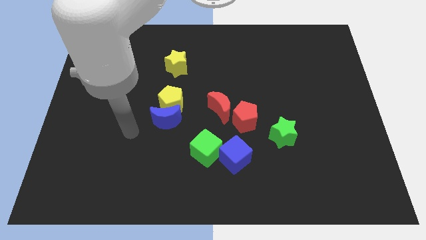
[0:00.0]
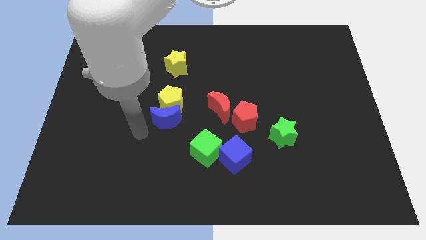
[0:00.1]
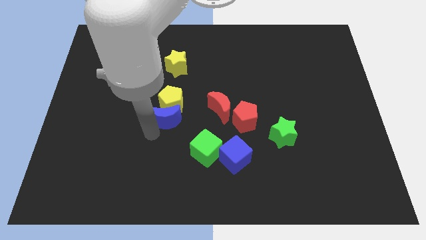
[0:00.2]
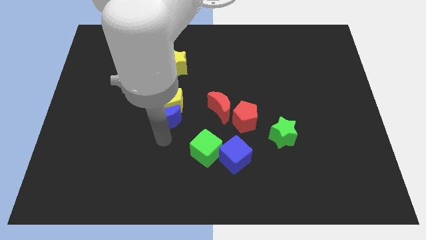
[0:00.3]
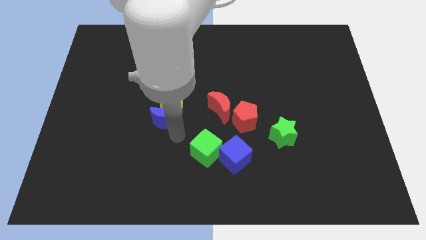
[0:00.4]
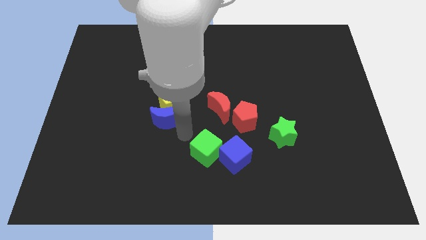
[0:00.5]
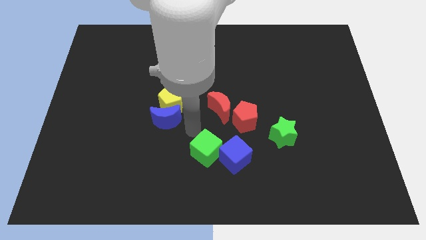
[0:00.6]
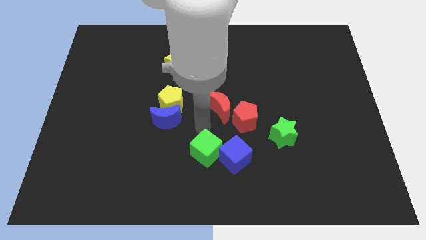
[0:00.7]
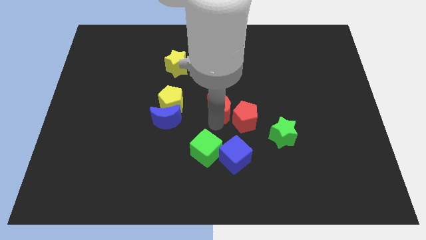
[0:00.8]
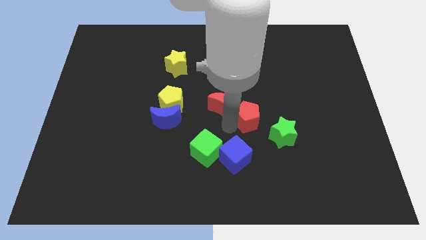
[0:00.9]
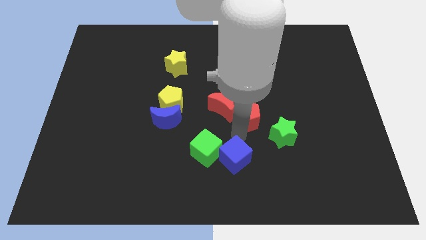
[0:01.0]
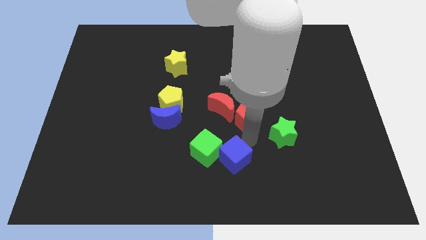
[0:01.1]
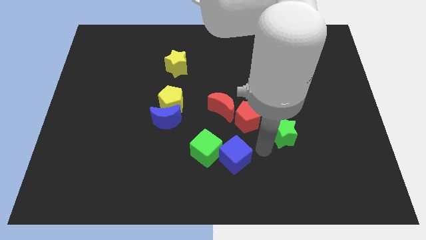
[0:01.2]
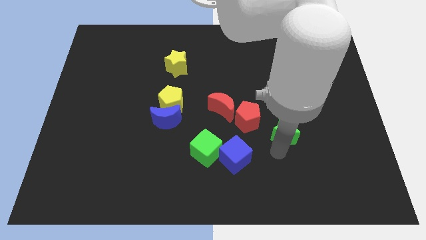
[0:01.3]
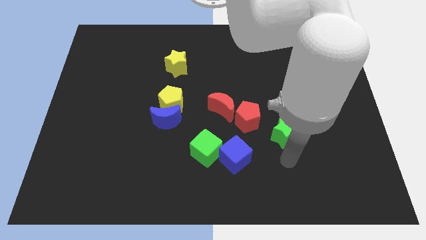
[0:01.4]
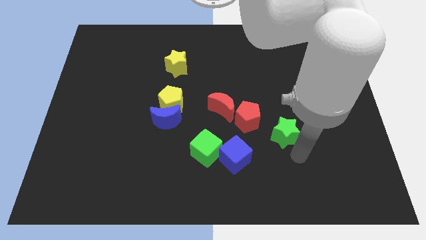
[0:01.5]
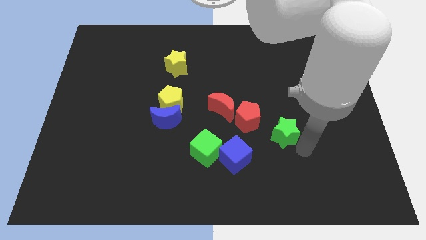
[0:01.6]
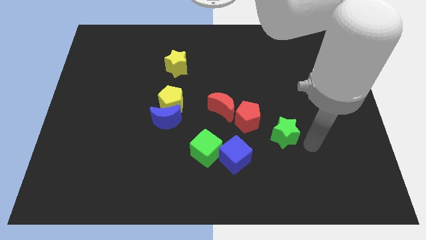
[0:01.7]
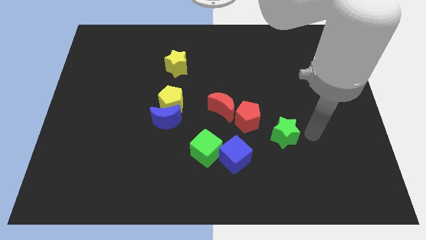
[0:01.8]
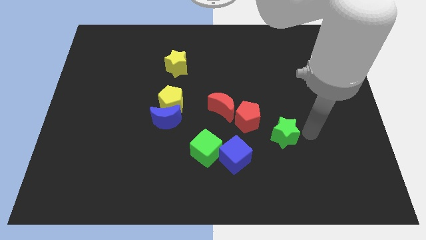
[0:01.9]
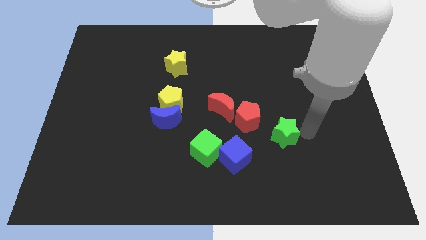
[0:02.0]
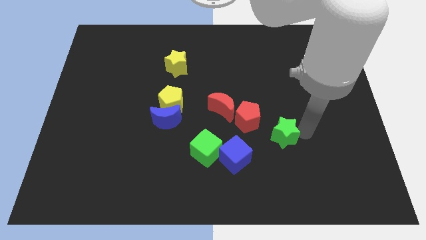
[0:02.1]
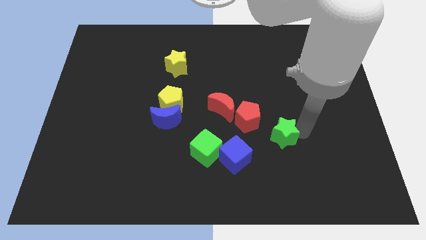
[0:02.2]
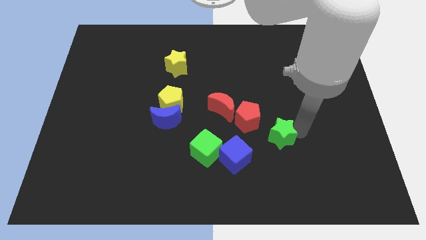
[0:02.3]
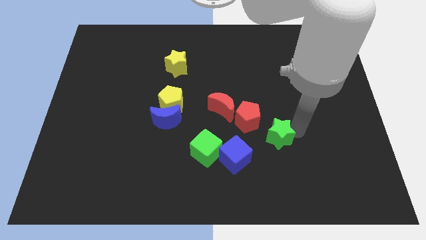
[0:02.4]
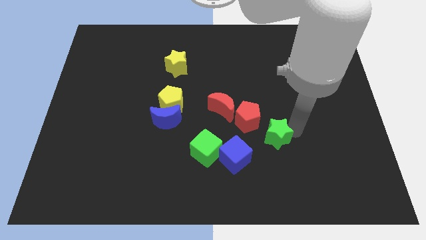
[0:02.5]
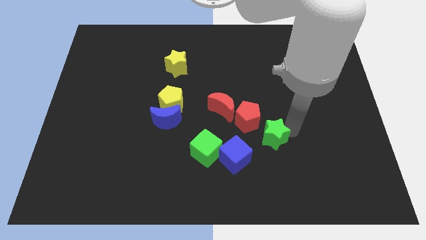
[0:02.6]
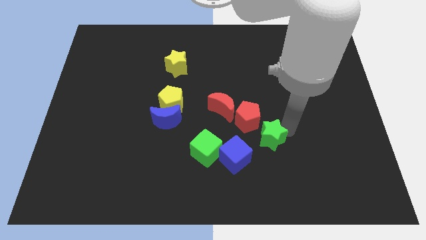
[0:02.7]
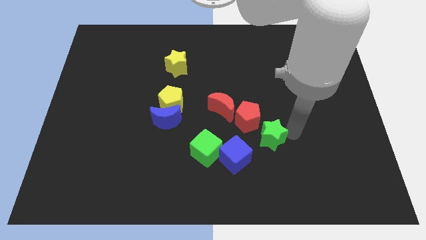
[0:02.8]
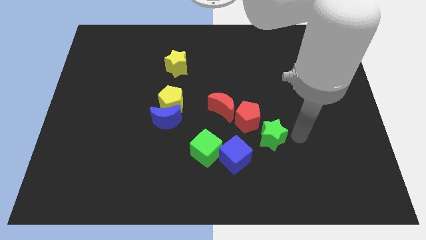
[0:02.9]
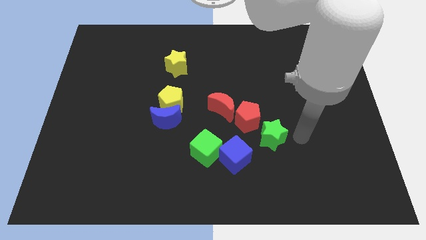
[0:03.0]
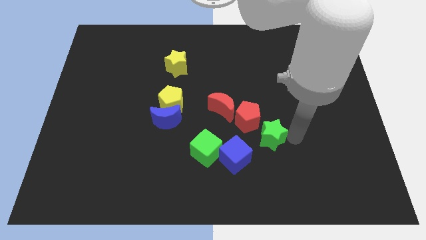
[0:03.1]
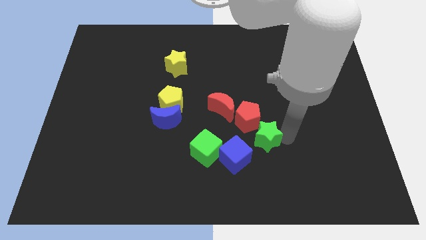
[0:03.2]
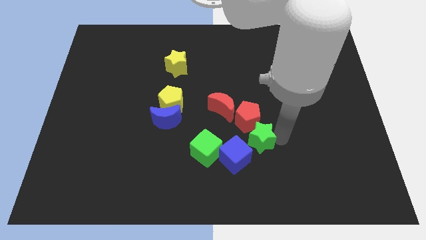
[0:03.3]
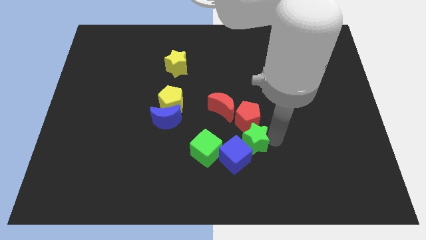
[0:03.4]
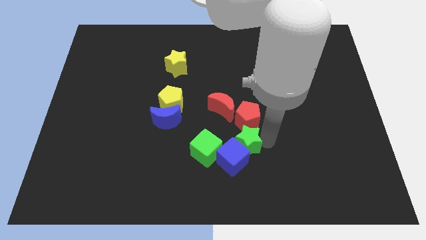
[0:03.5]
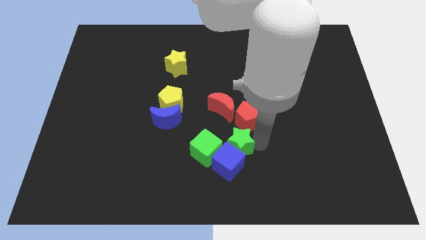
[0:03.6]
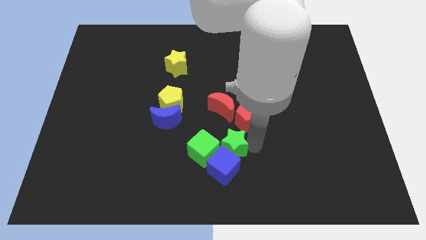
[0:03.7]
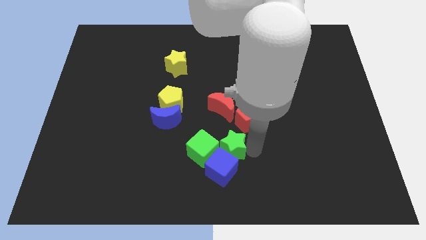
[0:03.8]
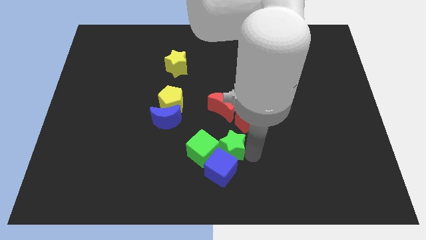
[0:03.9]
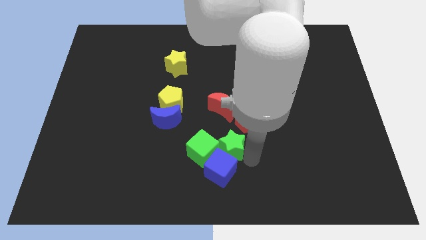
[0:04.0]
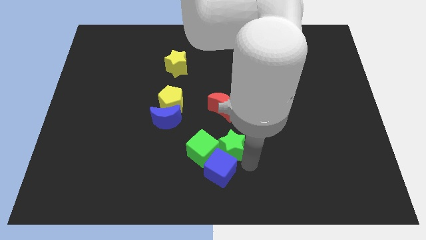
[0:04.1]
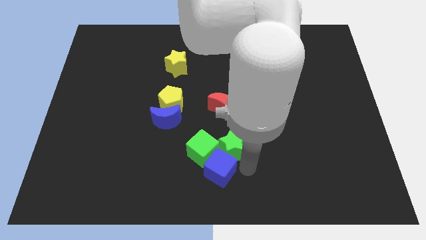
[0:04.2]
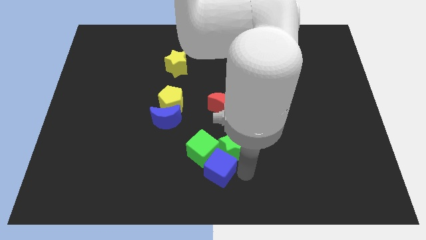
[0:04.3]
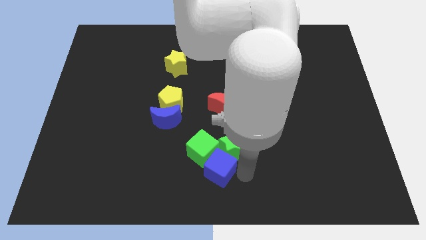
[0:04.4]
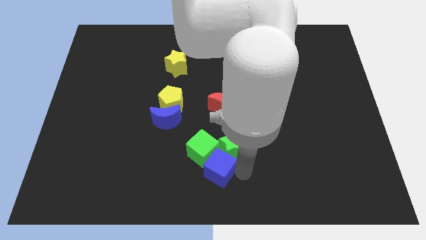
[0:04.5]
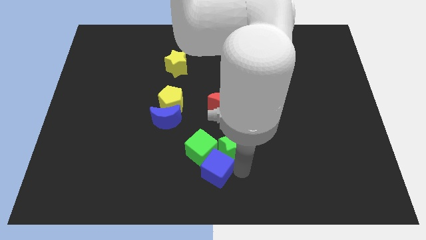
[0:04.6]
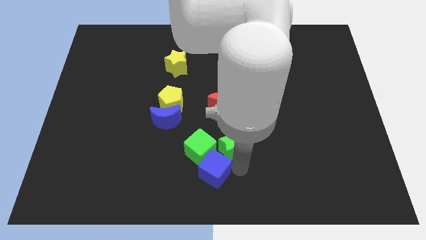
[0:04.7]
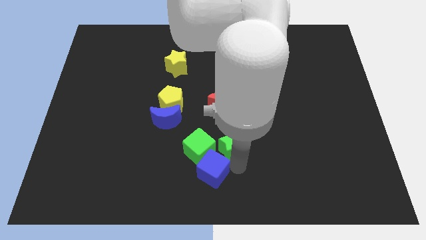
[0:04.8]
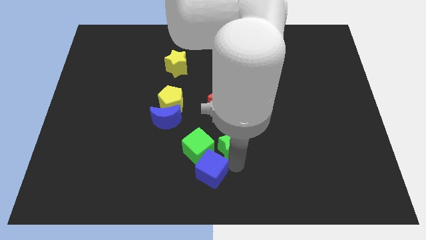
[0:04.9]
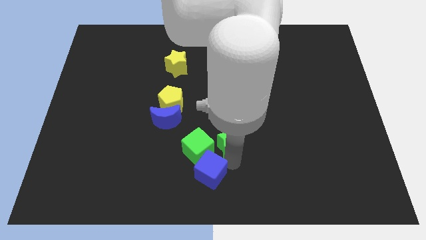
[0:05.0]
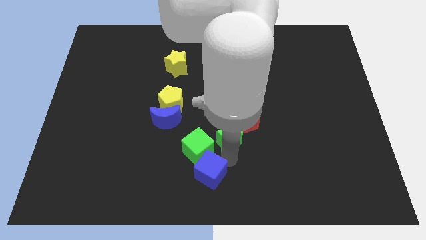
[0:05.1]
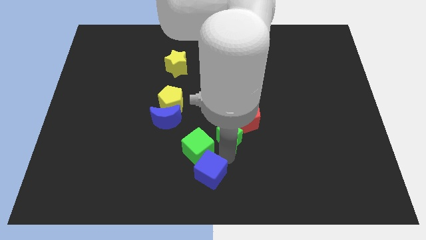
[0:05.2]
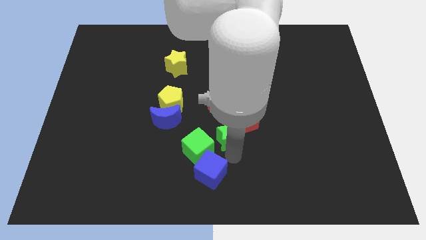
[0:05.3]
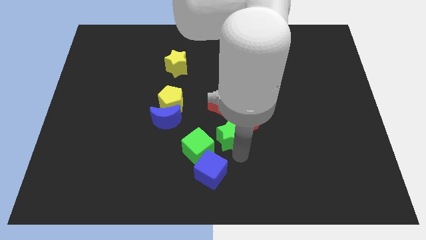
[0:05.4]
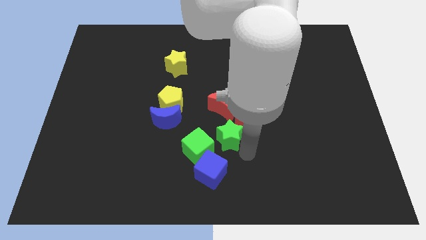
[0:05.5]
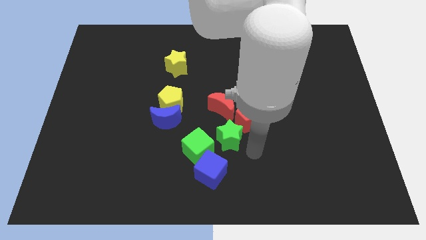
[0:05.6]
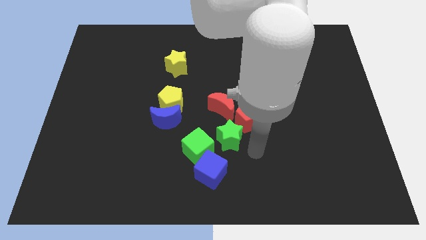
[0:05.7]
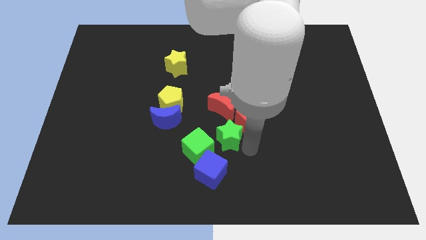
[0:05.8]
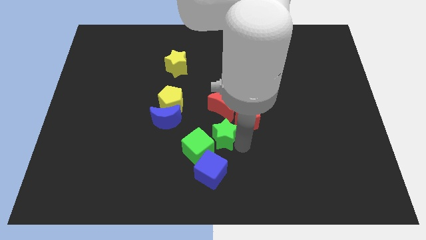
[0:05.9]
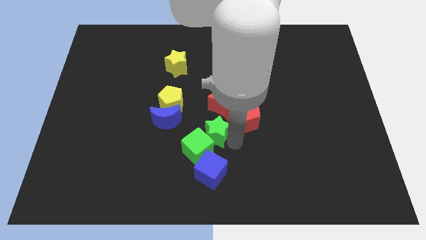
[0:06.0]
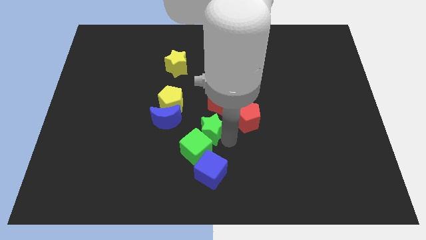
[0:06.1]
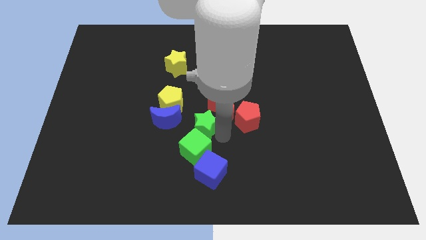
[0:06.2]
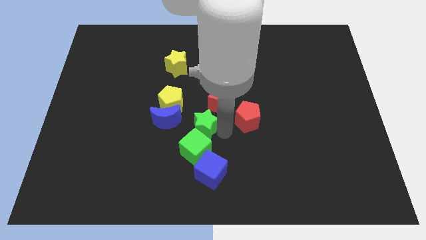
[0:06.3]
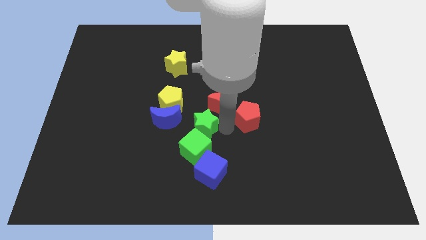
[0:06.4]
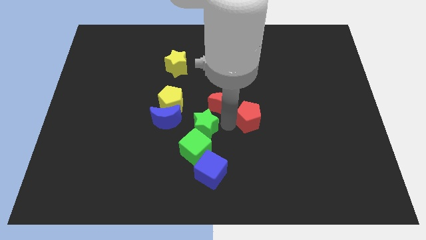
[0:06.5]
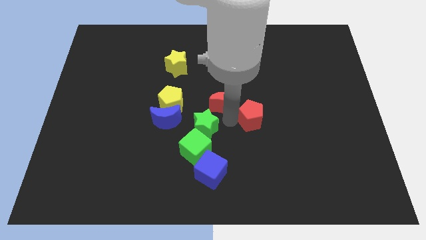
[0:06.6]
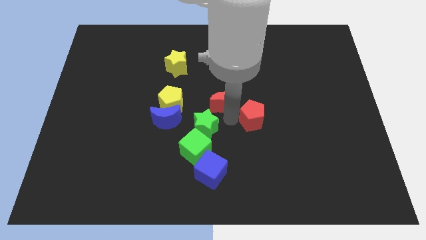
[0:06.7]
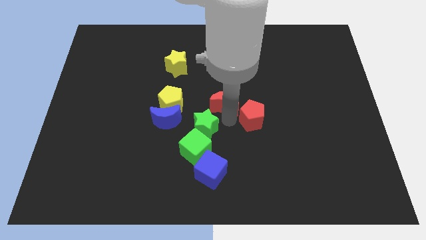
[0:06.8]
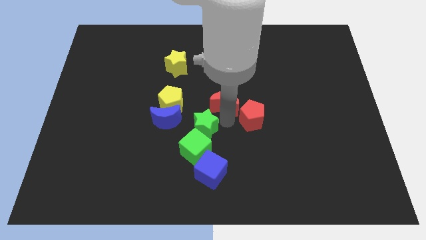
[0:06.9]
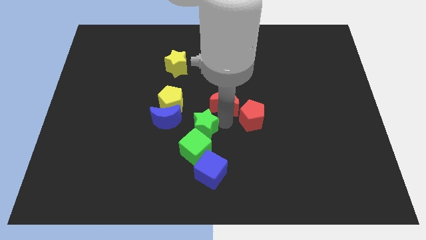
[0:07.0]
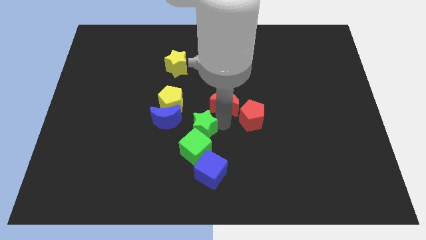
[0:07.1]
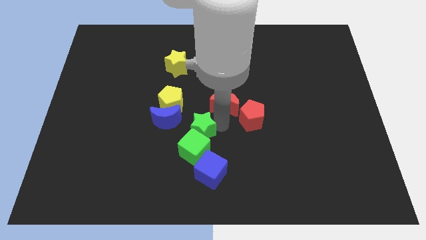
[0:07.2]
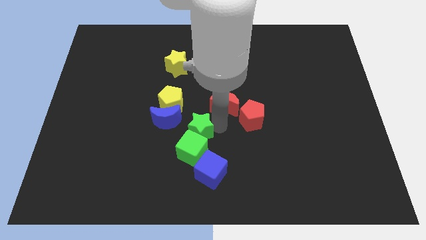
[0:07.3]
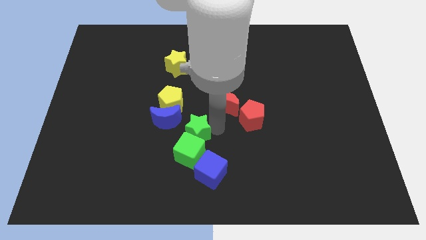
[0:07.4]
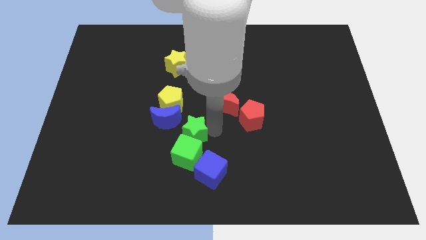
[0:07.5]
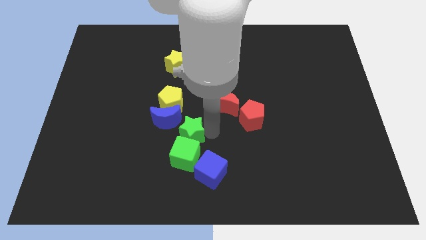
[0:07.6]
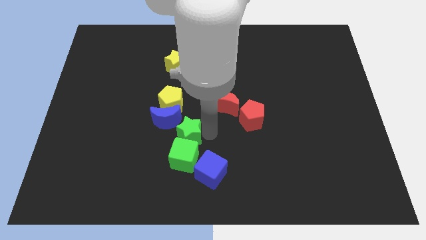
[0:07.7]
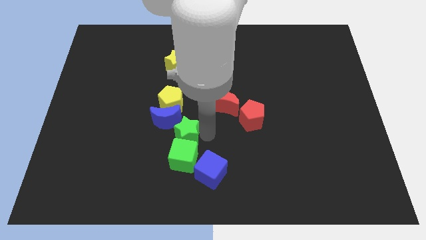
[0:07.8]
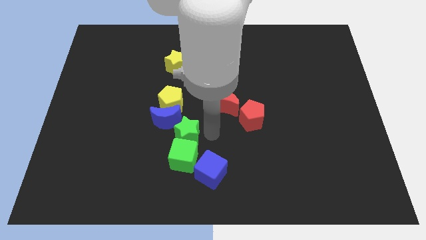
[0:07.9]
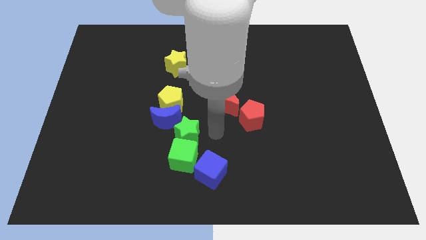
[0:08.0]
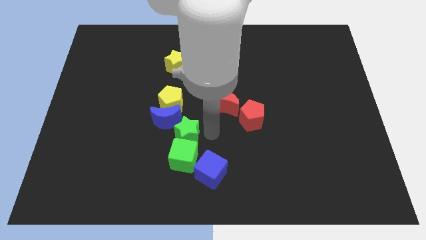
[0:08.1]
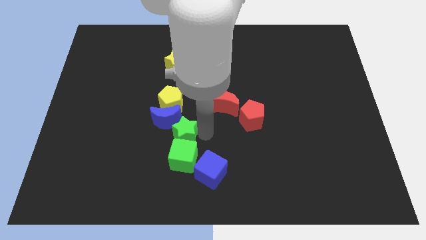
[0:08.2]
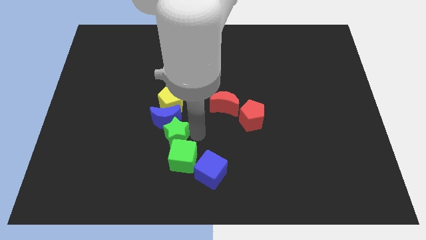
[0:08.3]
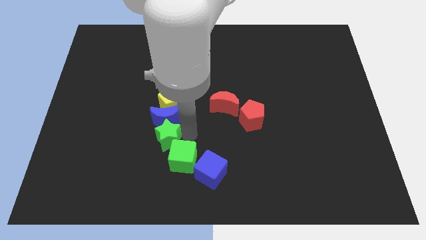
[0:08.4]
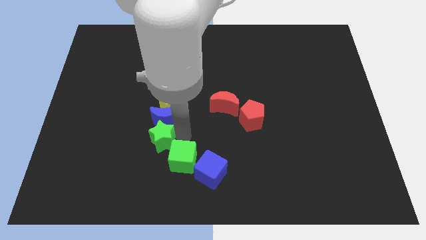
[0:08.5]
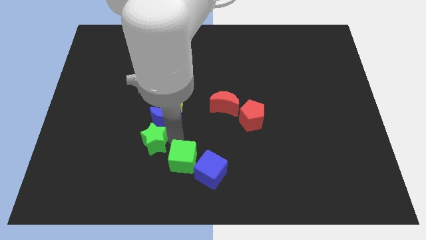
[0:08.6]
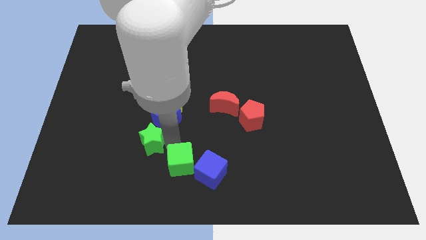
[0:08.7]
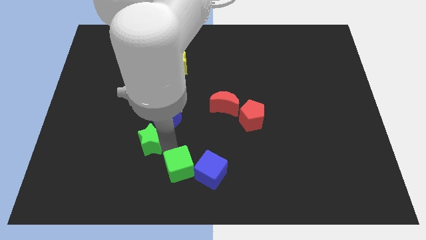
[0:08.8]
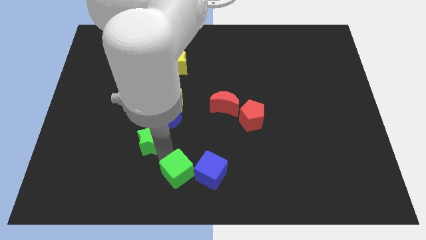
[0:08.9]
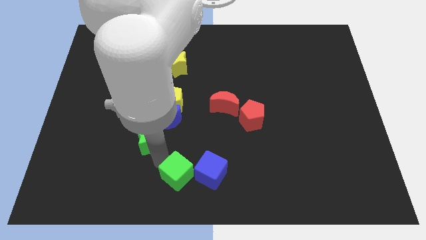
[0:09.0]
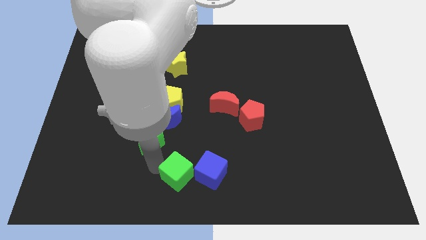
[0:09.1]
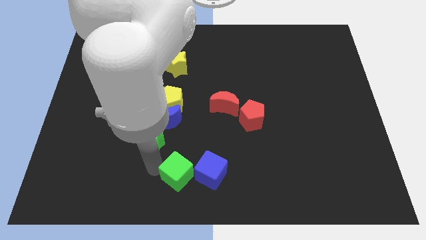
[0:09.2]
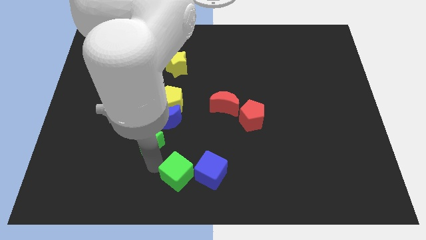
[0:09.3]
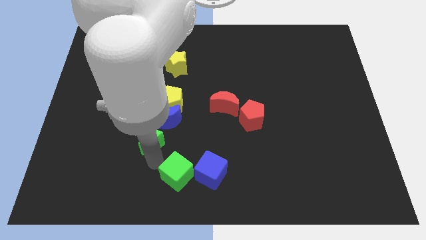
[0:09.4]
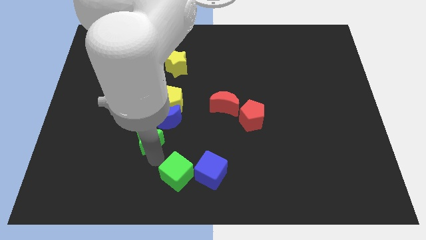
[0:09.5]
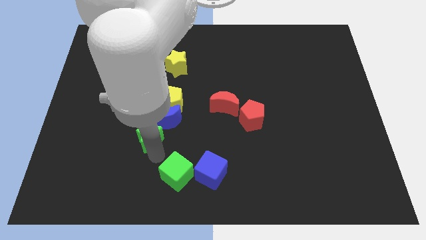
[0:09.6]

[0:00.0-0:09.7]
push the green star to the bottom left of the yellow pentagon
